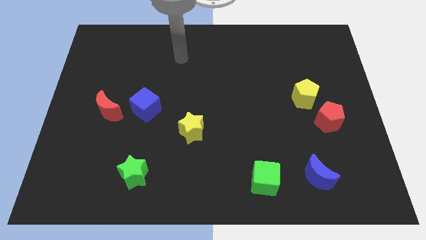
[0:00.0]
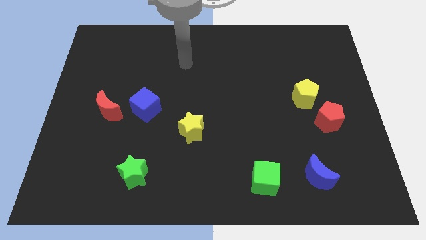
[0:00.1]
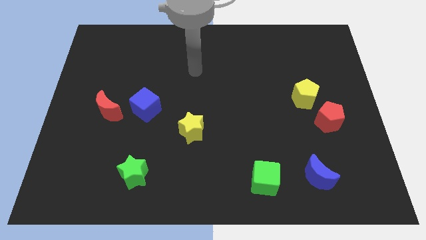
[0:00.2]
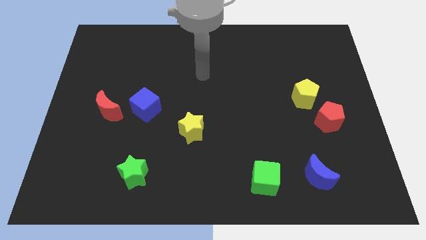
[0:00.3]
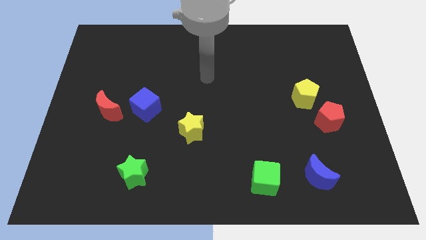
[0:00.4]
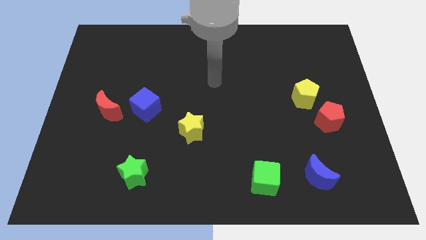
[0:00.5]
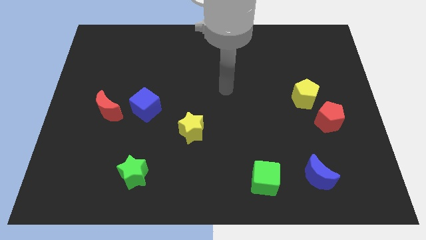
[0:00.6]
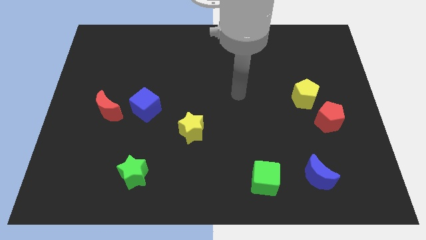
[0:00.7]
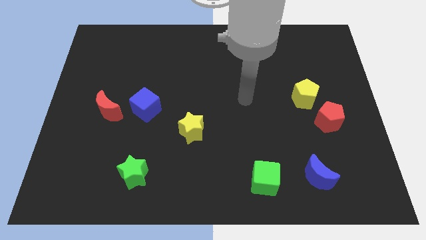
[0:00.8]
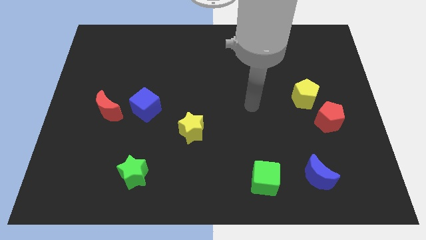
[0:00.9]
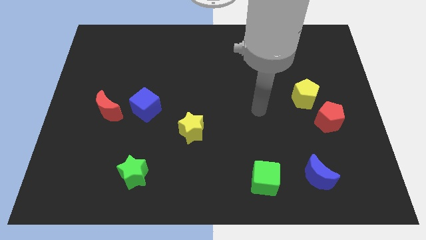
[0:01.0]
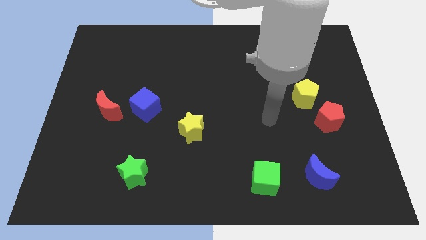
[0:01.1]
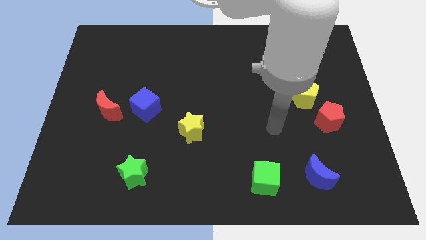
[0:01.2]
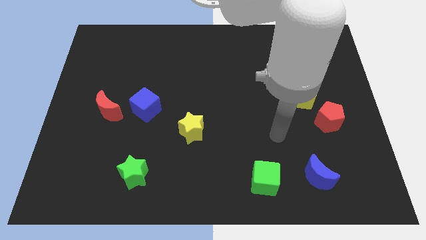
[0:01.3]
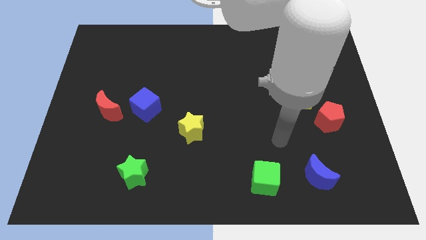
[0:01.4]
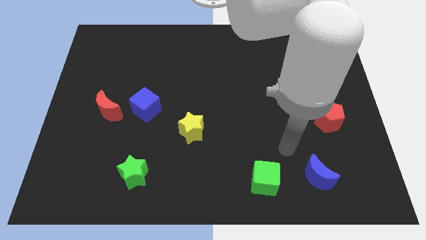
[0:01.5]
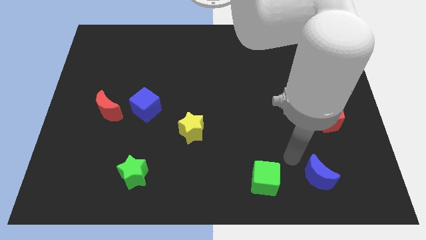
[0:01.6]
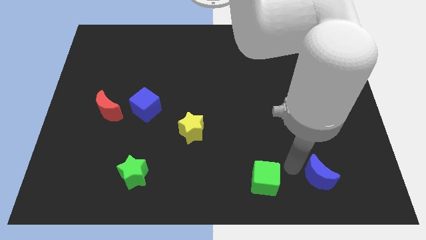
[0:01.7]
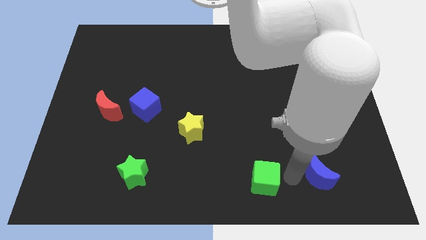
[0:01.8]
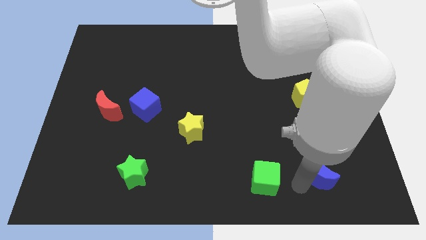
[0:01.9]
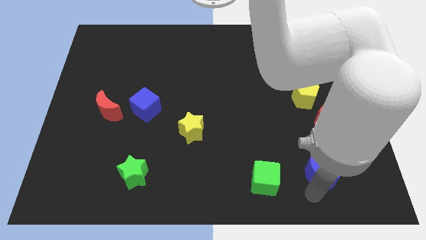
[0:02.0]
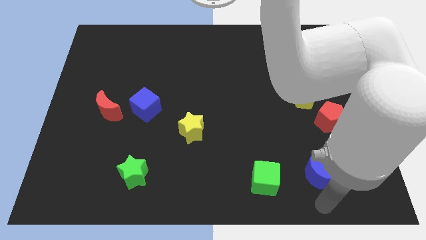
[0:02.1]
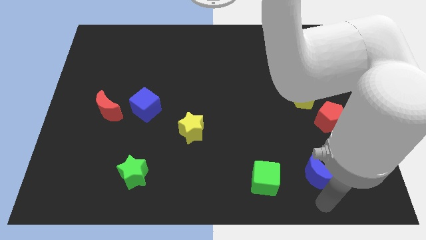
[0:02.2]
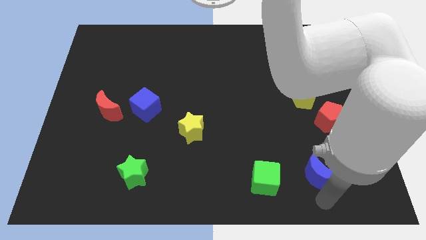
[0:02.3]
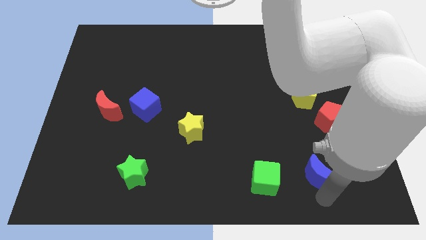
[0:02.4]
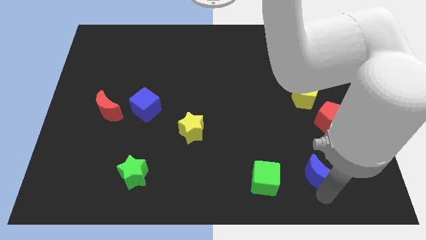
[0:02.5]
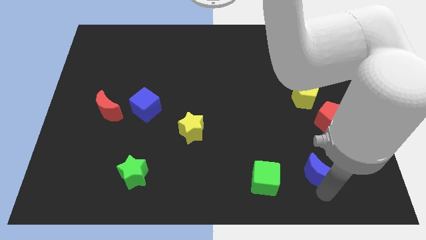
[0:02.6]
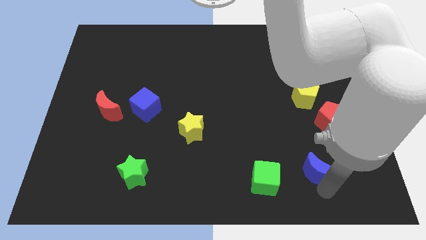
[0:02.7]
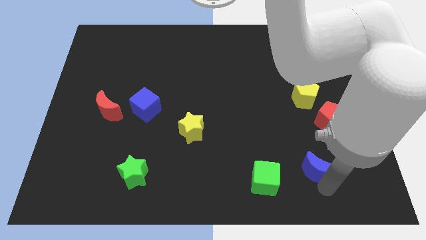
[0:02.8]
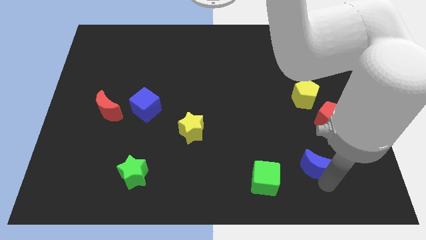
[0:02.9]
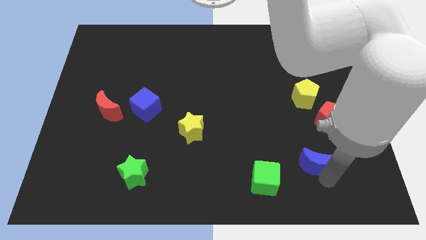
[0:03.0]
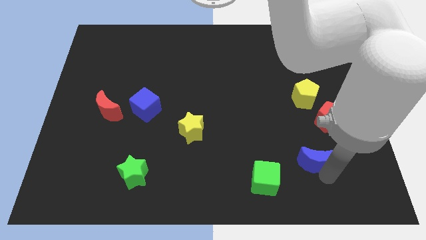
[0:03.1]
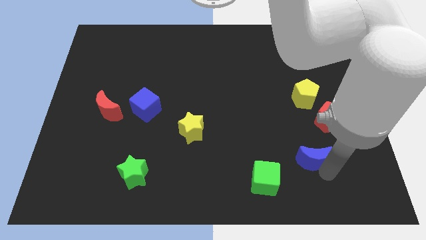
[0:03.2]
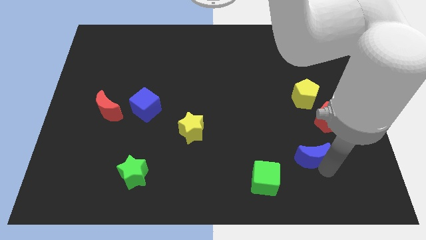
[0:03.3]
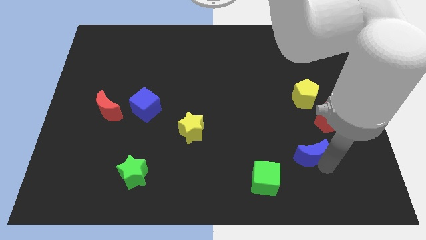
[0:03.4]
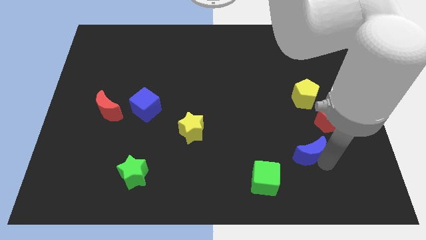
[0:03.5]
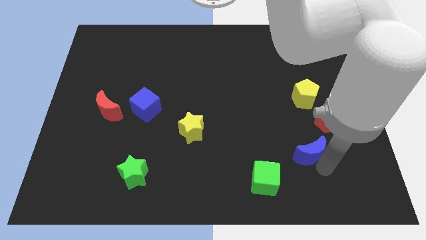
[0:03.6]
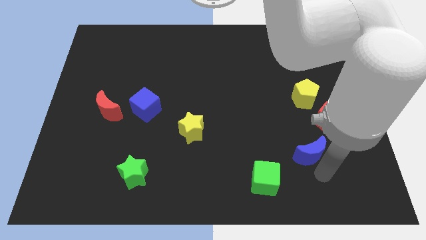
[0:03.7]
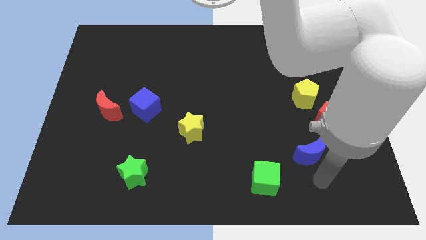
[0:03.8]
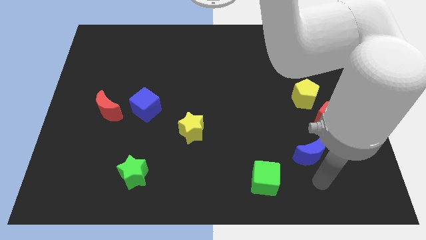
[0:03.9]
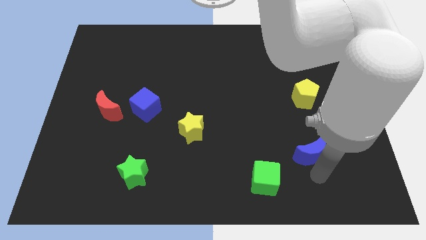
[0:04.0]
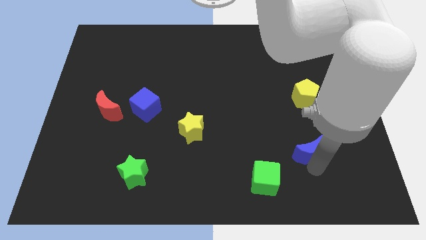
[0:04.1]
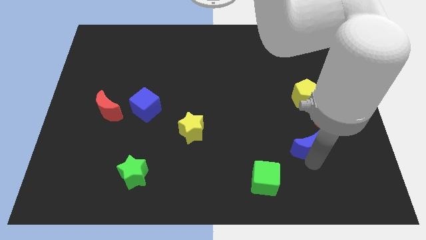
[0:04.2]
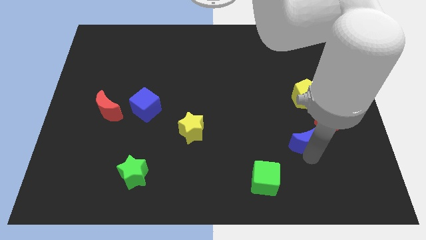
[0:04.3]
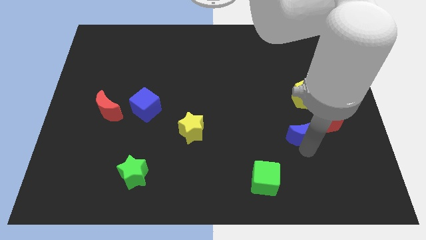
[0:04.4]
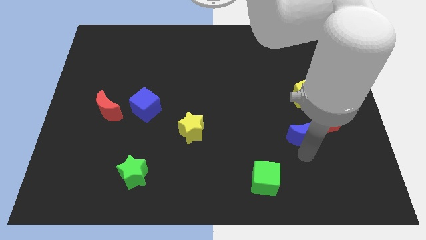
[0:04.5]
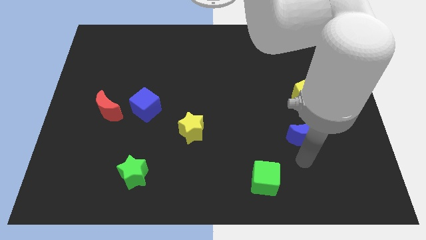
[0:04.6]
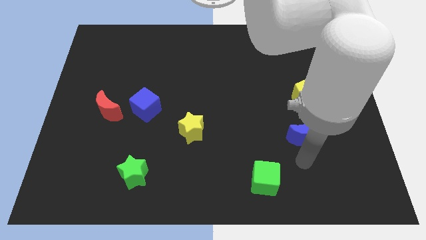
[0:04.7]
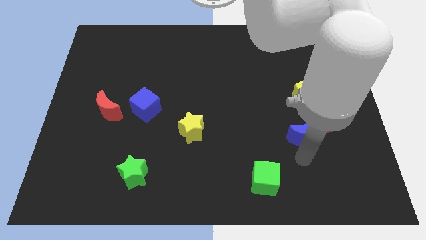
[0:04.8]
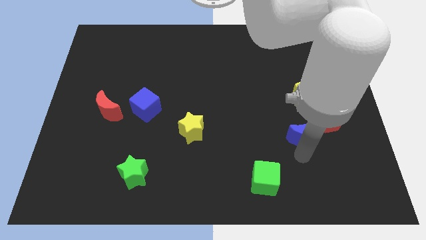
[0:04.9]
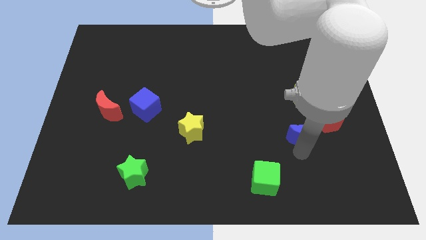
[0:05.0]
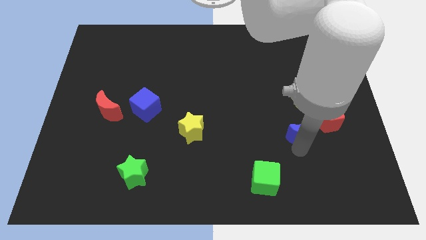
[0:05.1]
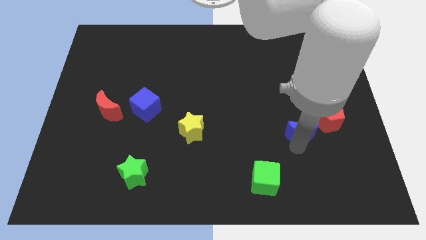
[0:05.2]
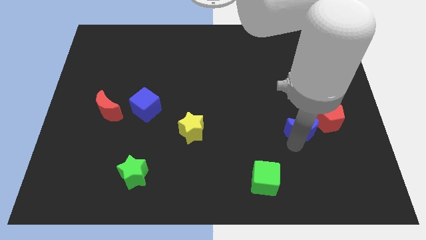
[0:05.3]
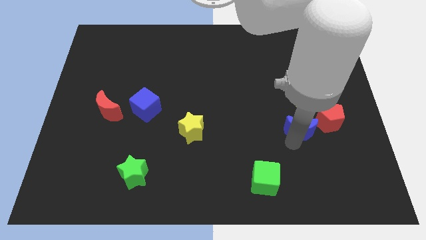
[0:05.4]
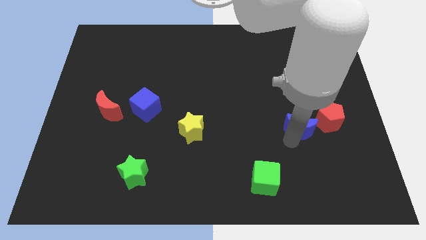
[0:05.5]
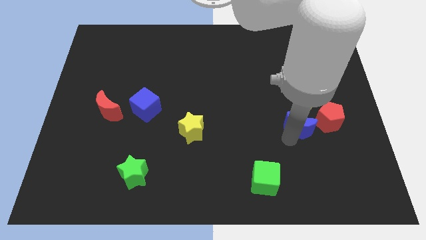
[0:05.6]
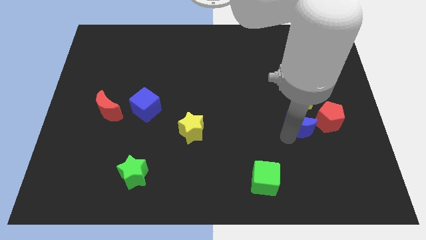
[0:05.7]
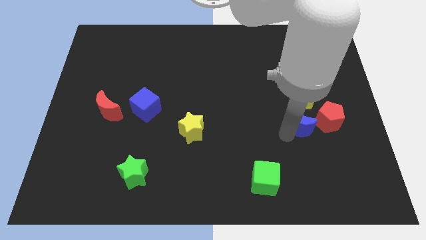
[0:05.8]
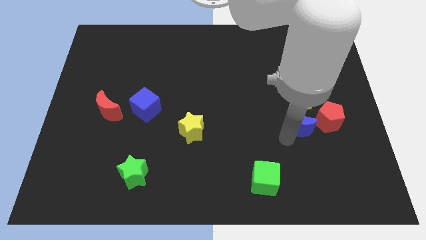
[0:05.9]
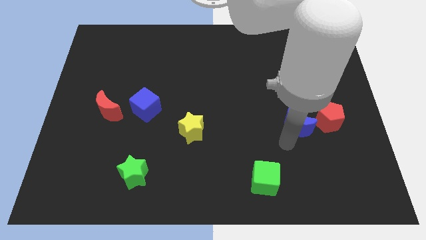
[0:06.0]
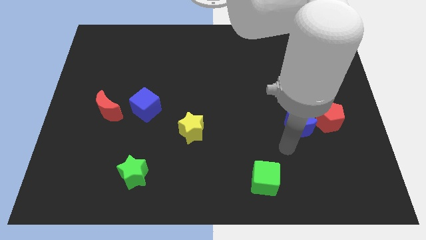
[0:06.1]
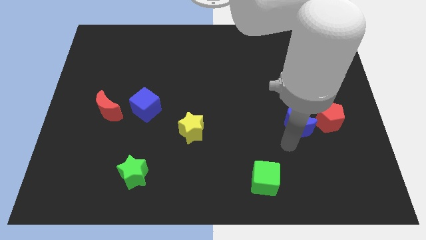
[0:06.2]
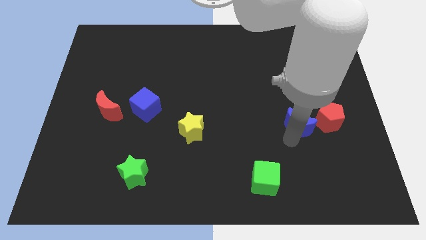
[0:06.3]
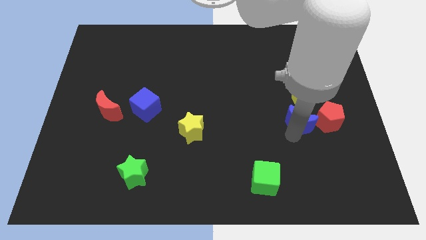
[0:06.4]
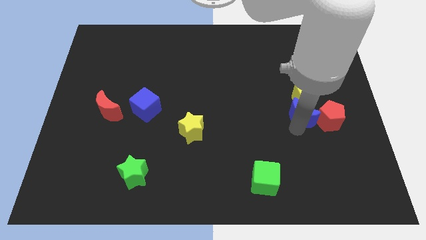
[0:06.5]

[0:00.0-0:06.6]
put the blue moon towards the yellow pentagon
